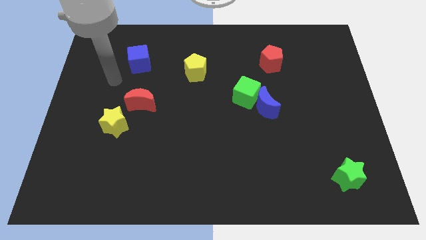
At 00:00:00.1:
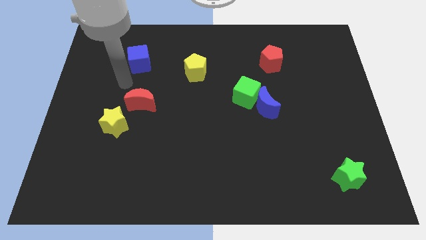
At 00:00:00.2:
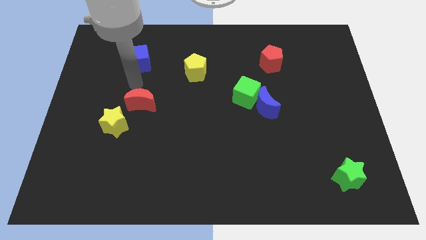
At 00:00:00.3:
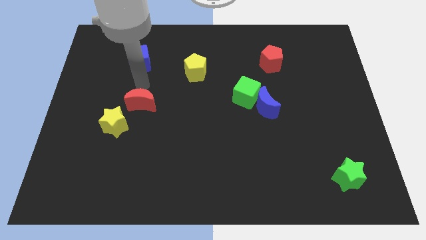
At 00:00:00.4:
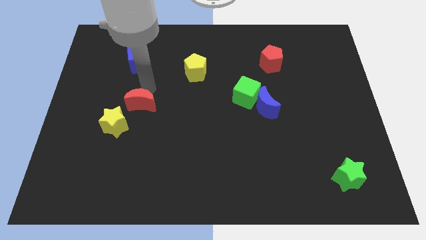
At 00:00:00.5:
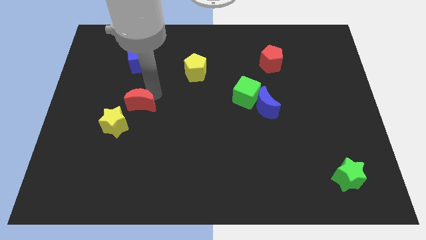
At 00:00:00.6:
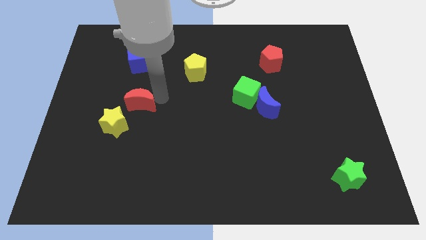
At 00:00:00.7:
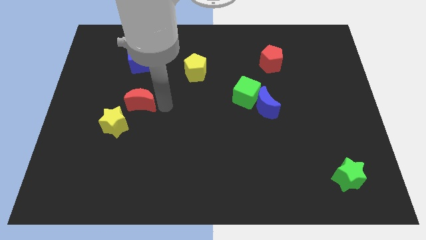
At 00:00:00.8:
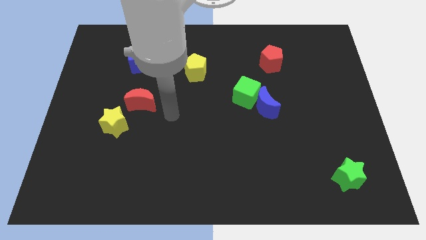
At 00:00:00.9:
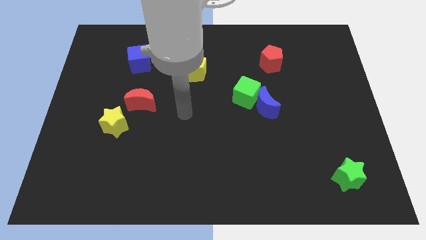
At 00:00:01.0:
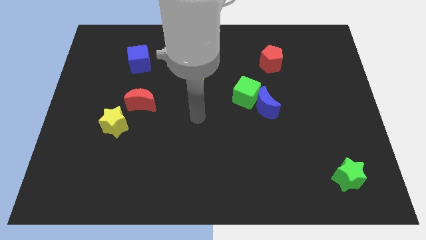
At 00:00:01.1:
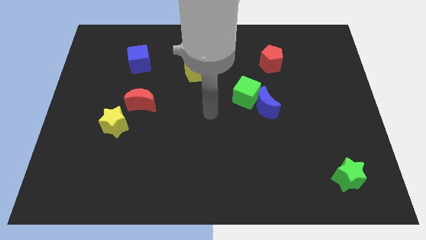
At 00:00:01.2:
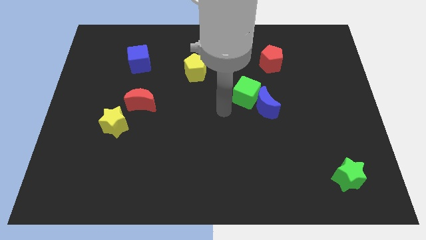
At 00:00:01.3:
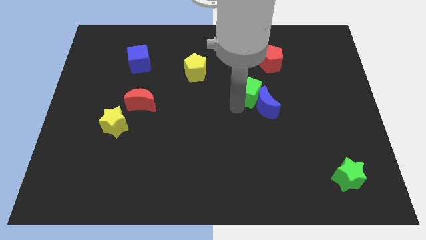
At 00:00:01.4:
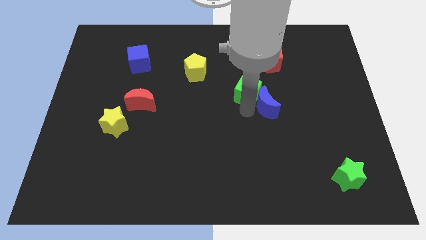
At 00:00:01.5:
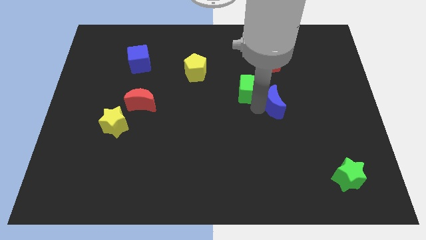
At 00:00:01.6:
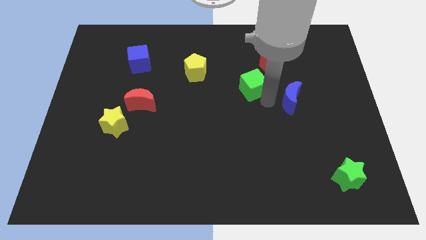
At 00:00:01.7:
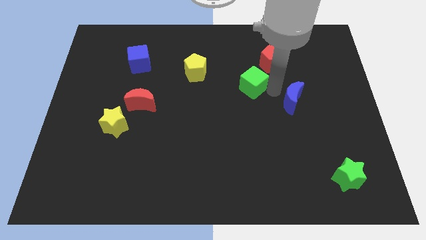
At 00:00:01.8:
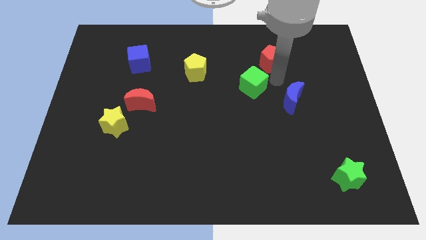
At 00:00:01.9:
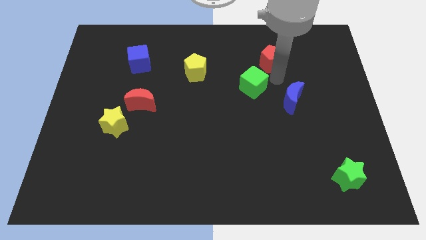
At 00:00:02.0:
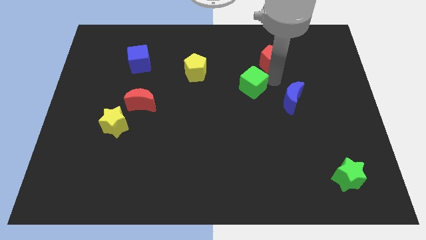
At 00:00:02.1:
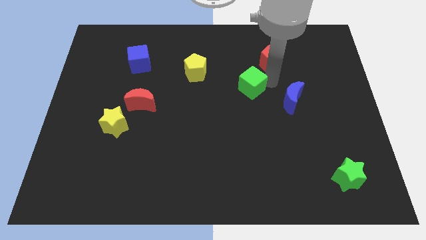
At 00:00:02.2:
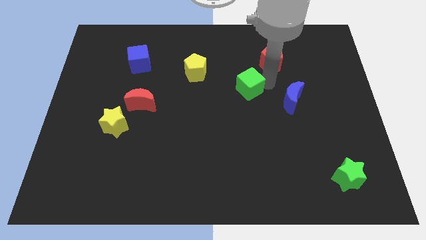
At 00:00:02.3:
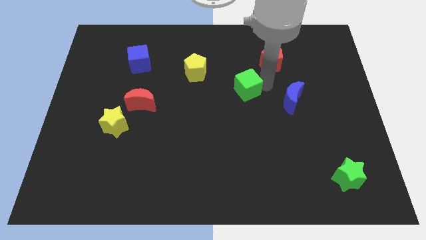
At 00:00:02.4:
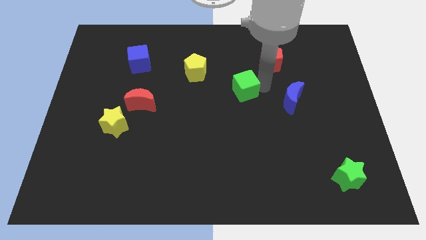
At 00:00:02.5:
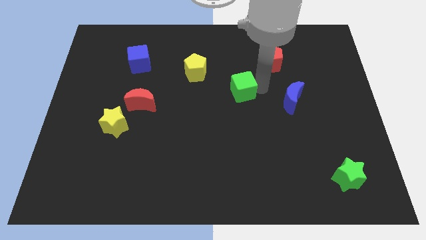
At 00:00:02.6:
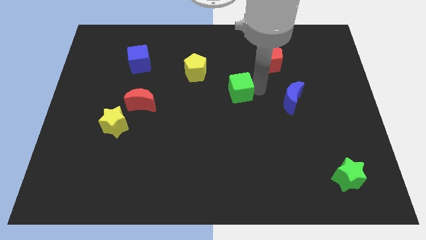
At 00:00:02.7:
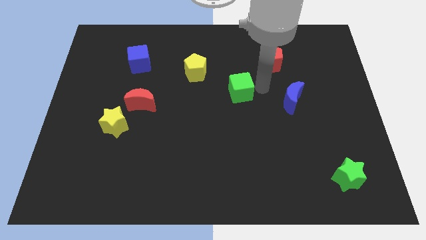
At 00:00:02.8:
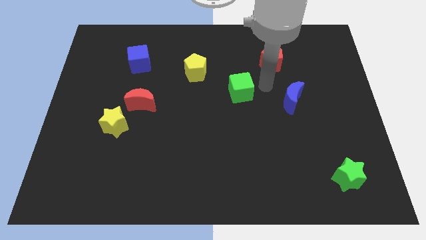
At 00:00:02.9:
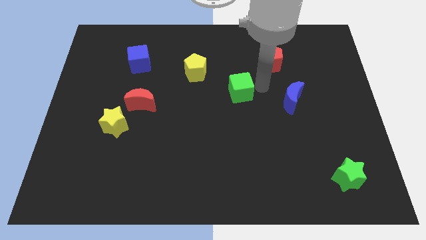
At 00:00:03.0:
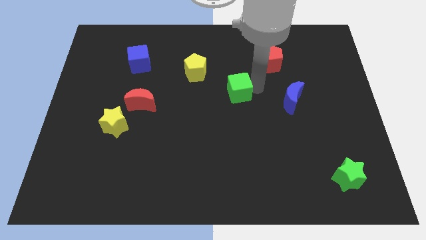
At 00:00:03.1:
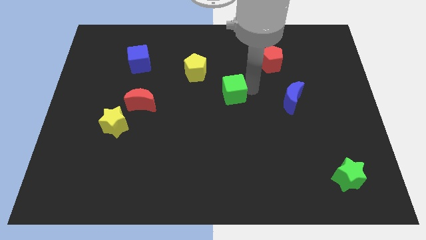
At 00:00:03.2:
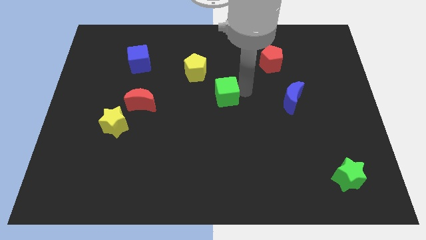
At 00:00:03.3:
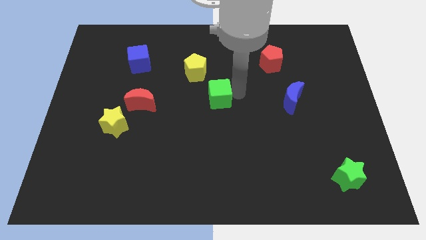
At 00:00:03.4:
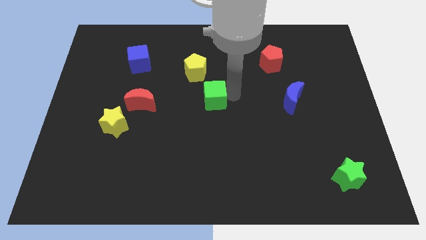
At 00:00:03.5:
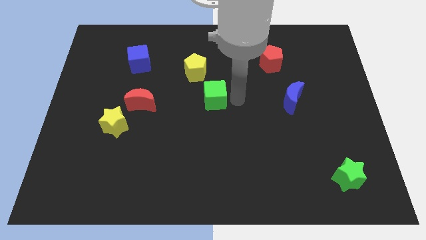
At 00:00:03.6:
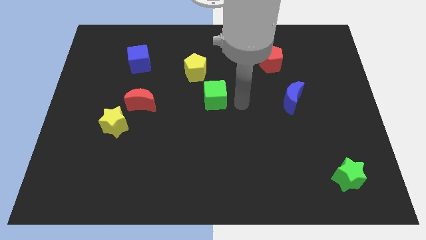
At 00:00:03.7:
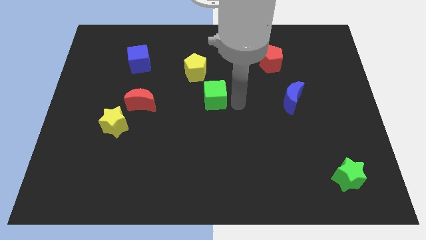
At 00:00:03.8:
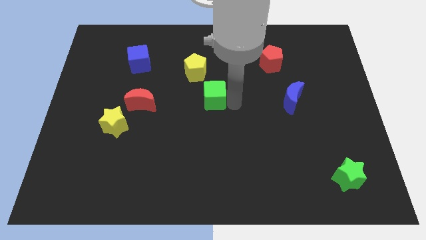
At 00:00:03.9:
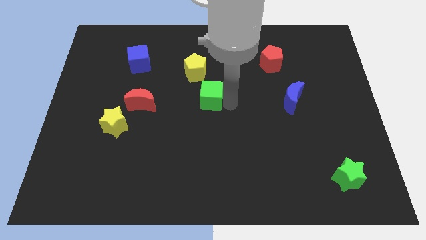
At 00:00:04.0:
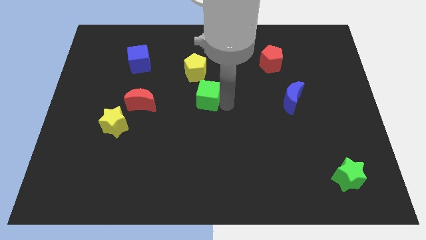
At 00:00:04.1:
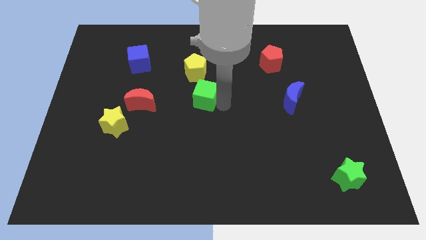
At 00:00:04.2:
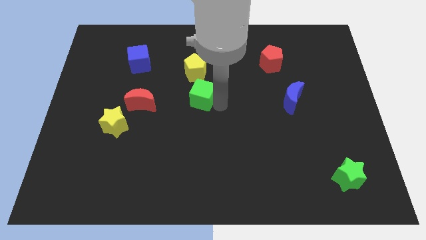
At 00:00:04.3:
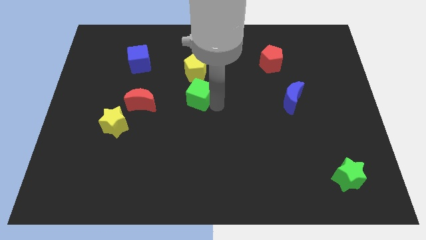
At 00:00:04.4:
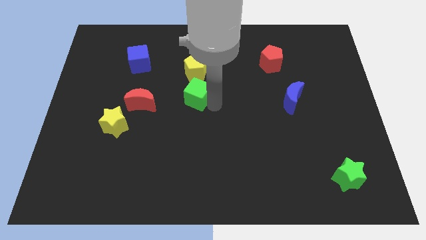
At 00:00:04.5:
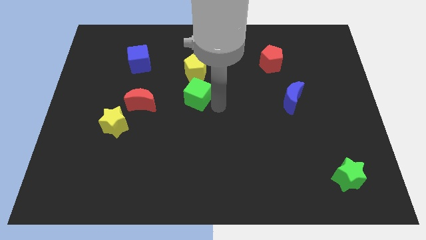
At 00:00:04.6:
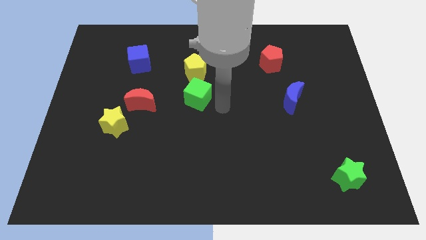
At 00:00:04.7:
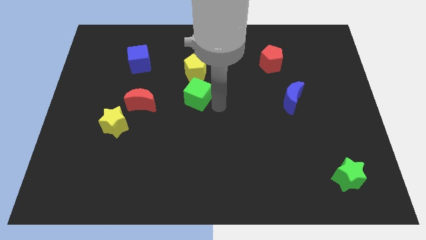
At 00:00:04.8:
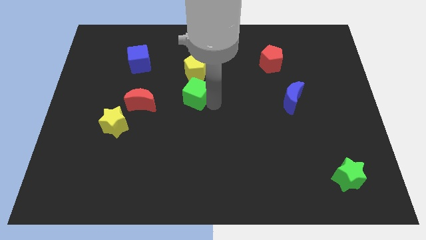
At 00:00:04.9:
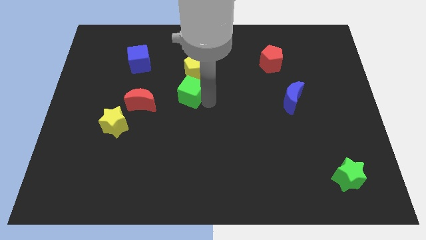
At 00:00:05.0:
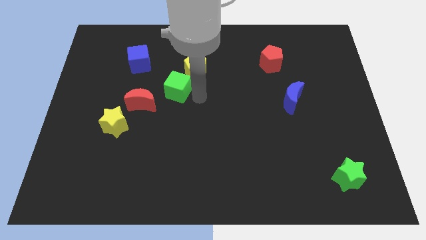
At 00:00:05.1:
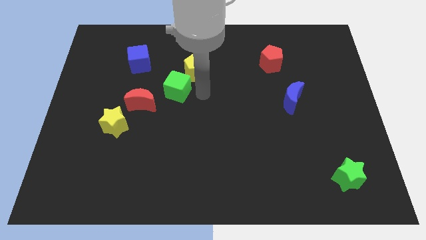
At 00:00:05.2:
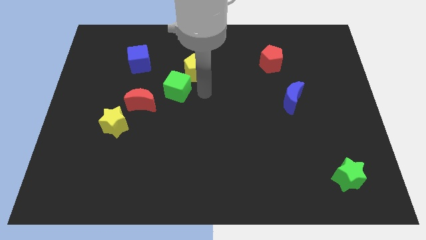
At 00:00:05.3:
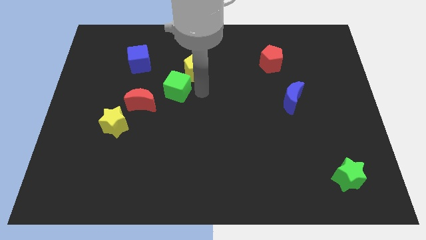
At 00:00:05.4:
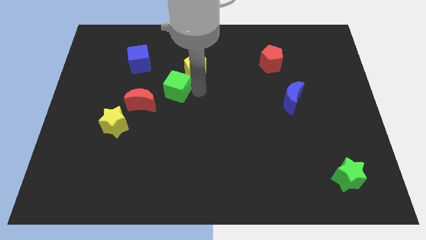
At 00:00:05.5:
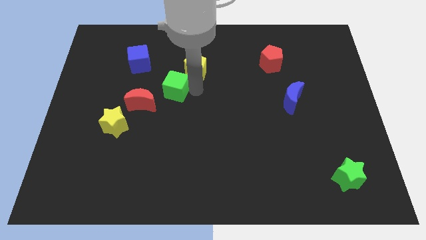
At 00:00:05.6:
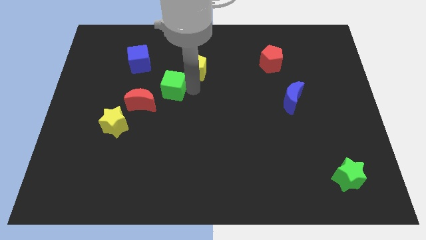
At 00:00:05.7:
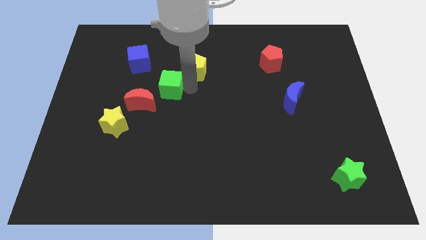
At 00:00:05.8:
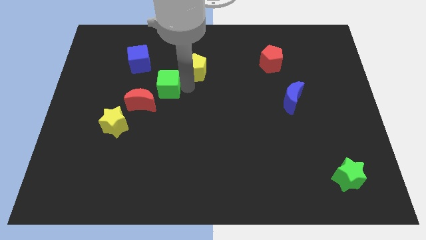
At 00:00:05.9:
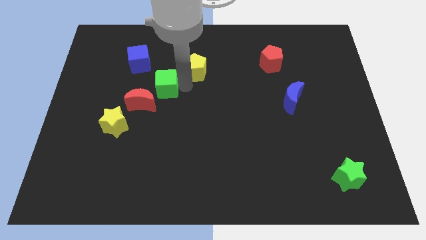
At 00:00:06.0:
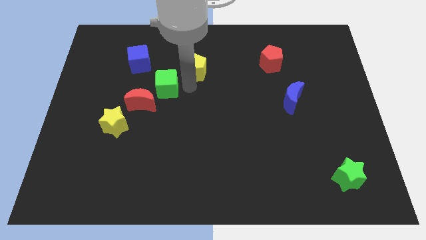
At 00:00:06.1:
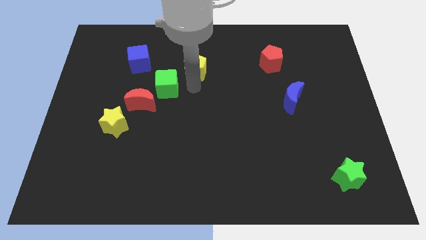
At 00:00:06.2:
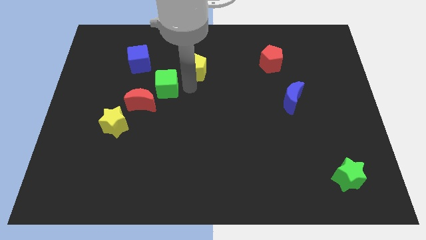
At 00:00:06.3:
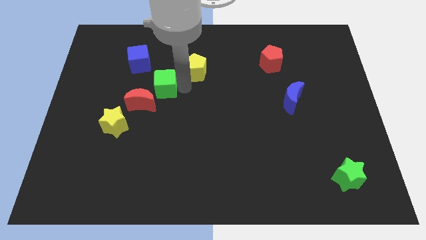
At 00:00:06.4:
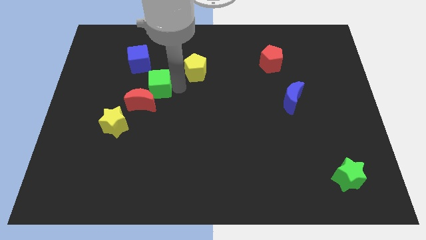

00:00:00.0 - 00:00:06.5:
move the green cube to the left

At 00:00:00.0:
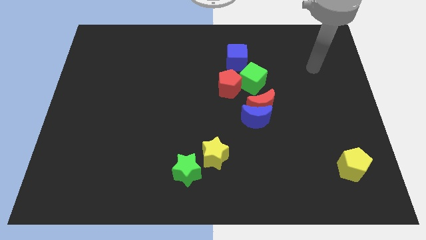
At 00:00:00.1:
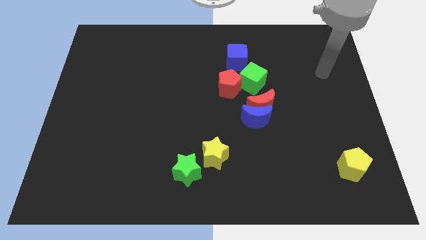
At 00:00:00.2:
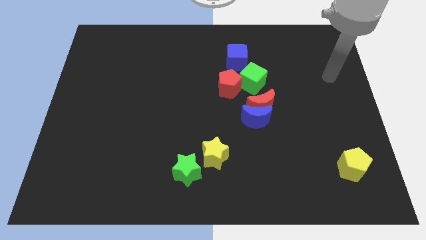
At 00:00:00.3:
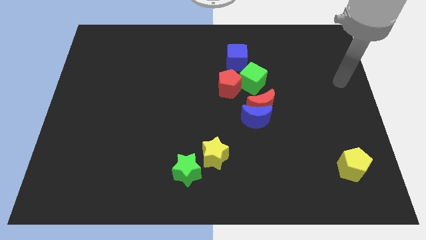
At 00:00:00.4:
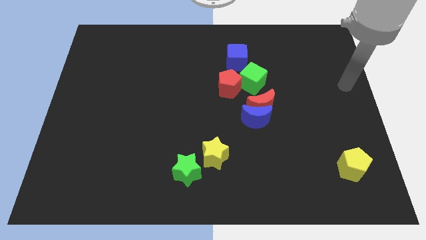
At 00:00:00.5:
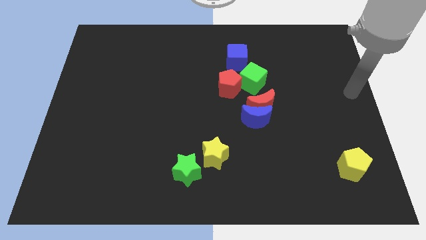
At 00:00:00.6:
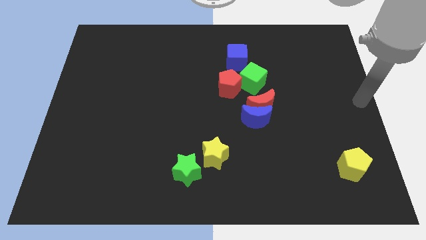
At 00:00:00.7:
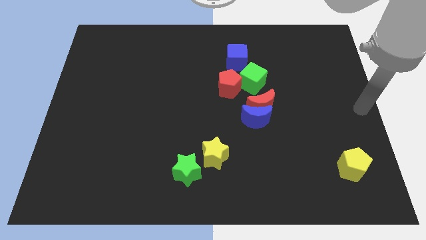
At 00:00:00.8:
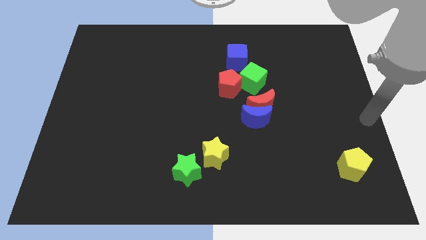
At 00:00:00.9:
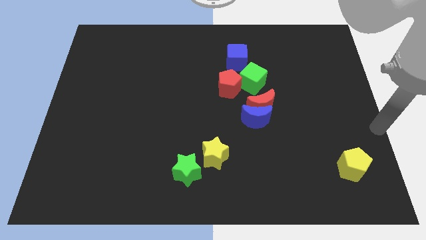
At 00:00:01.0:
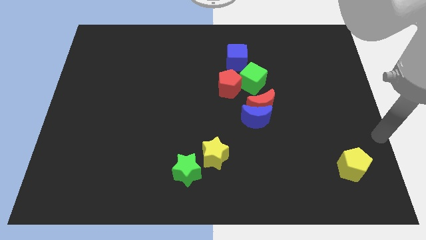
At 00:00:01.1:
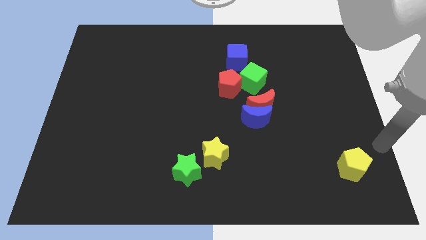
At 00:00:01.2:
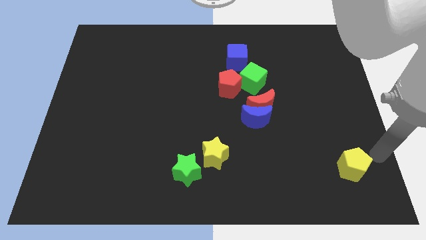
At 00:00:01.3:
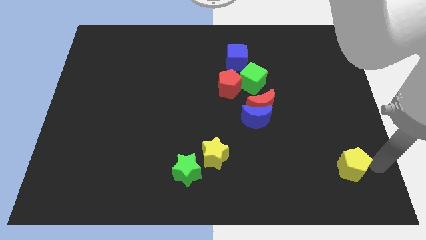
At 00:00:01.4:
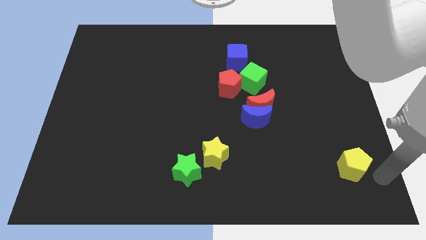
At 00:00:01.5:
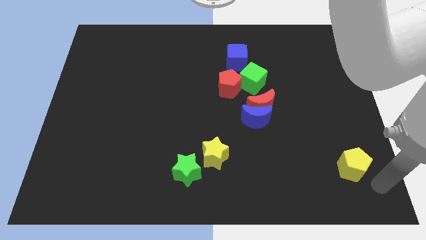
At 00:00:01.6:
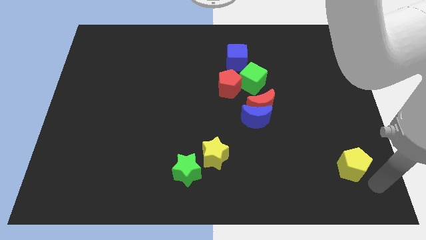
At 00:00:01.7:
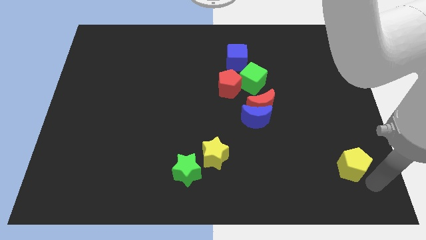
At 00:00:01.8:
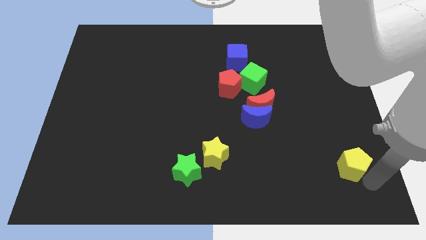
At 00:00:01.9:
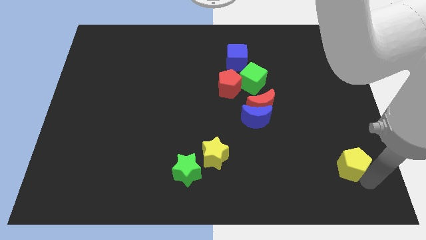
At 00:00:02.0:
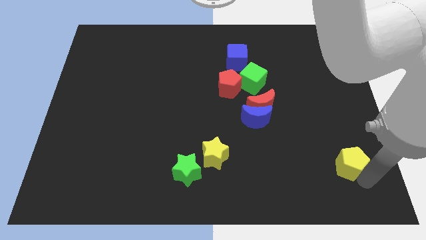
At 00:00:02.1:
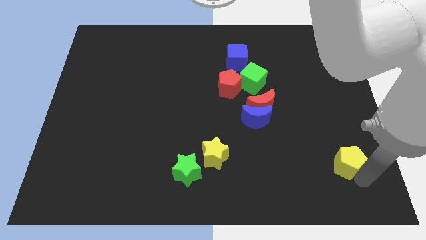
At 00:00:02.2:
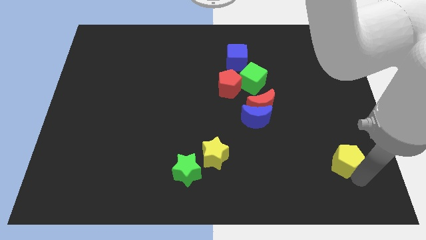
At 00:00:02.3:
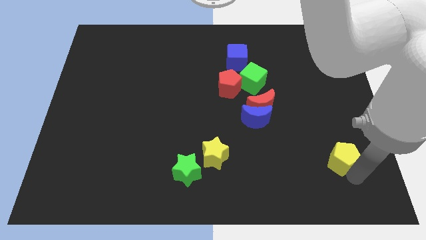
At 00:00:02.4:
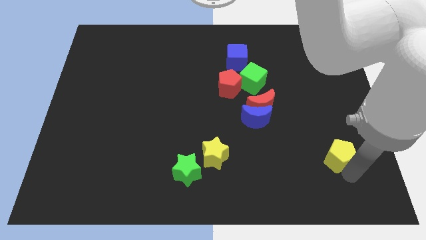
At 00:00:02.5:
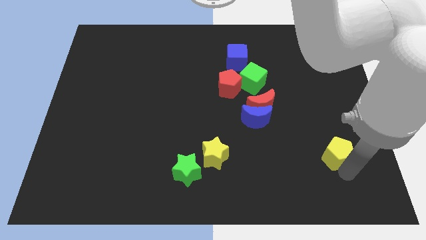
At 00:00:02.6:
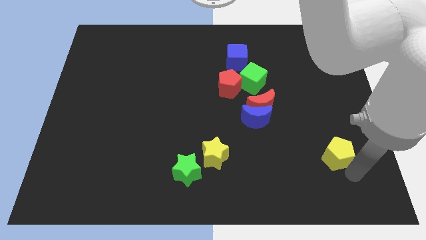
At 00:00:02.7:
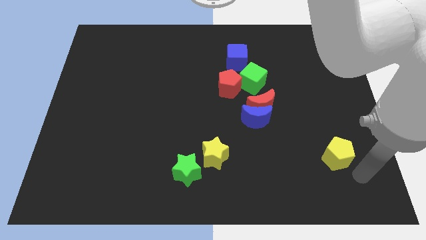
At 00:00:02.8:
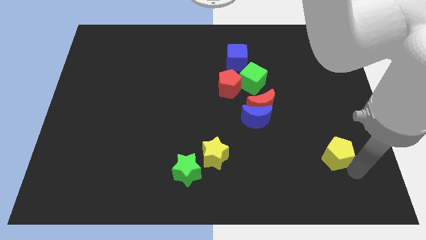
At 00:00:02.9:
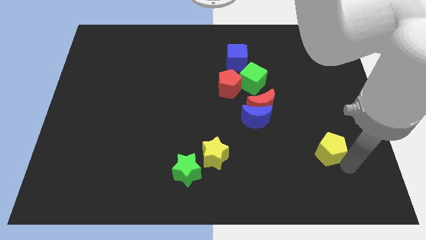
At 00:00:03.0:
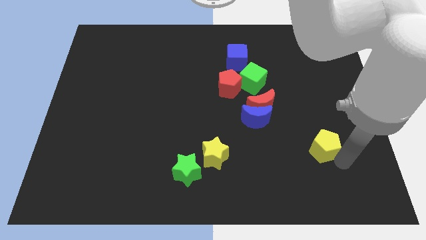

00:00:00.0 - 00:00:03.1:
slightly move the yellow pentagon up and then to the left
